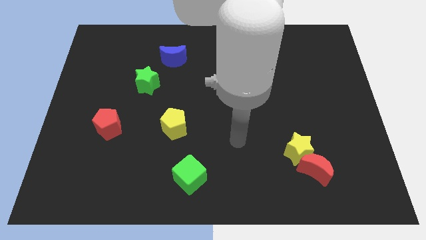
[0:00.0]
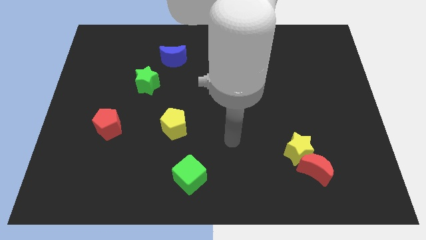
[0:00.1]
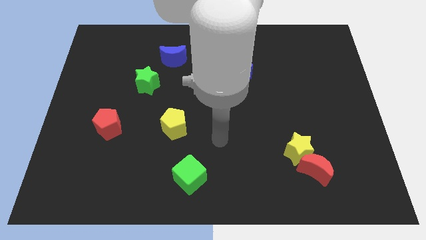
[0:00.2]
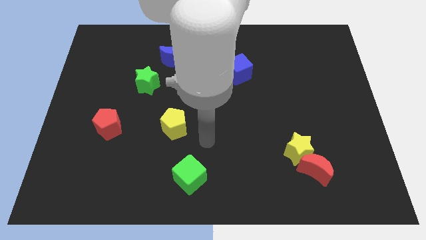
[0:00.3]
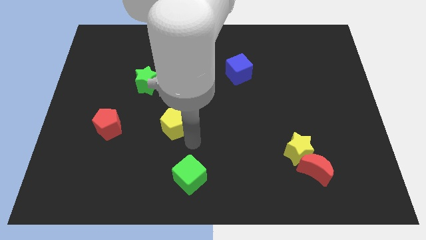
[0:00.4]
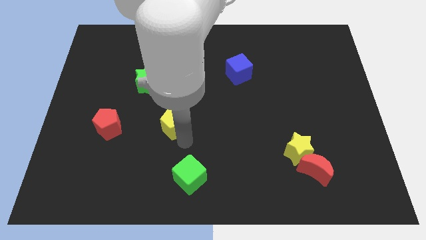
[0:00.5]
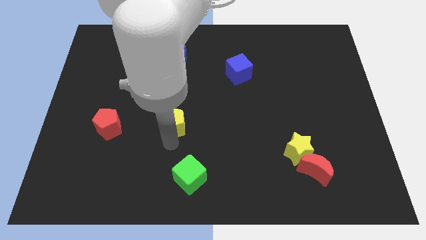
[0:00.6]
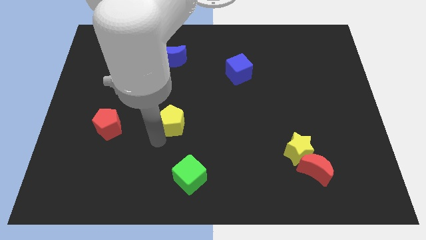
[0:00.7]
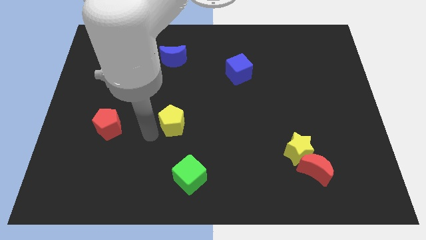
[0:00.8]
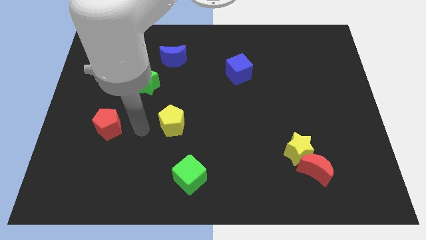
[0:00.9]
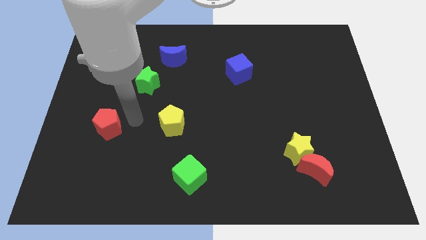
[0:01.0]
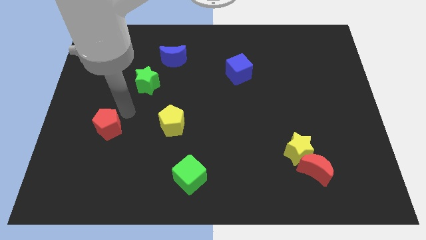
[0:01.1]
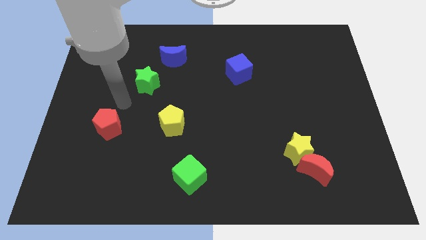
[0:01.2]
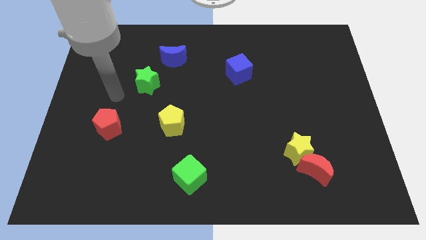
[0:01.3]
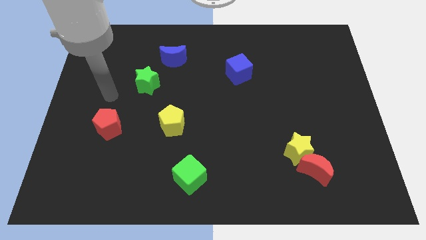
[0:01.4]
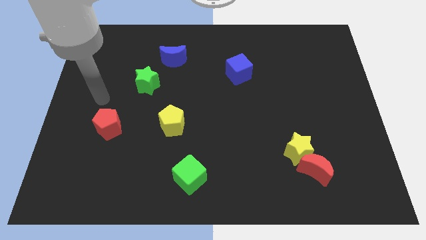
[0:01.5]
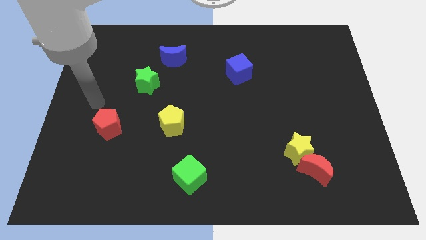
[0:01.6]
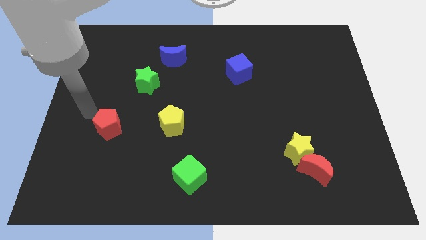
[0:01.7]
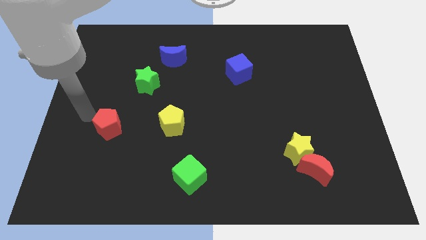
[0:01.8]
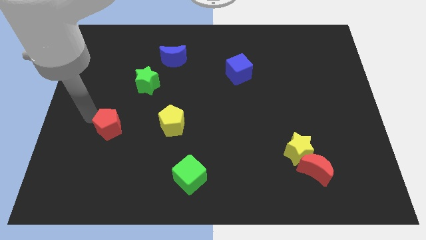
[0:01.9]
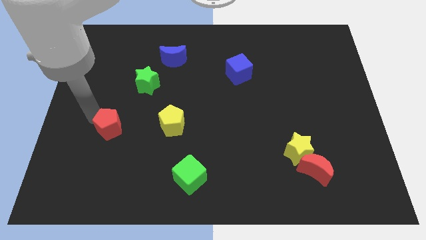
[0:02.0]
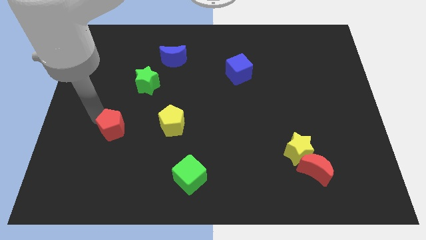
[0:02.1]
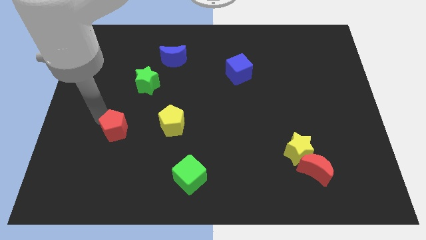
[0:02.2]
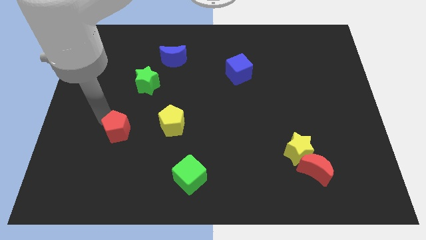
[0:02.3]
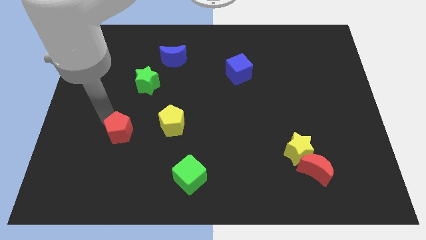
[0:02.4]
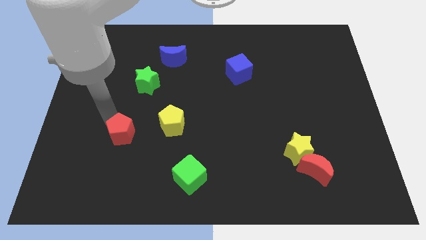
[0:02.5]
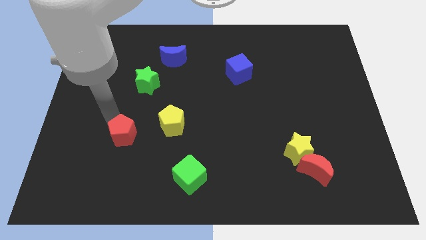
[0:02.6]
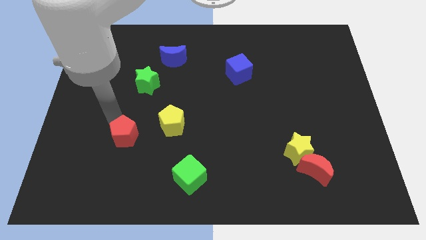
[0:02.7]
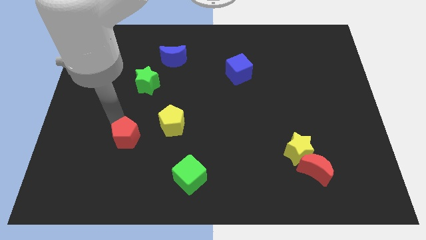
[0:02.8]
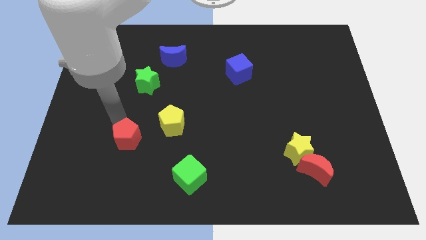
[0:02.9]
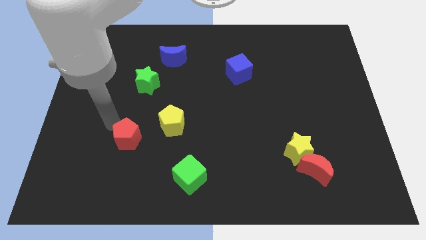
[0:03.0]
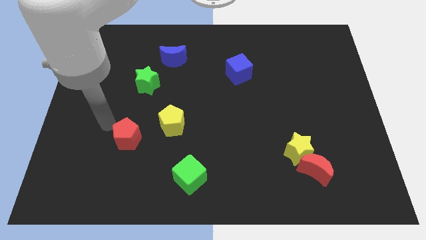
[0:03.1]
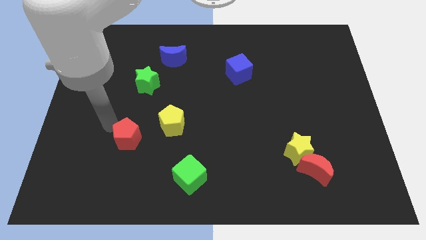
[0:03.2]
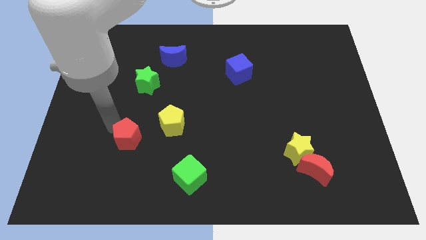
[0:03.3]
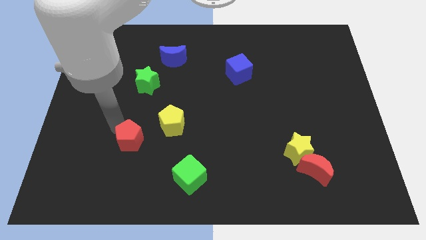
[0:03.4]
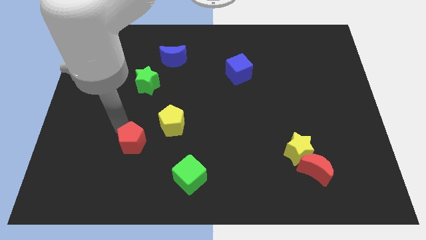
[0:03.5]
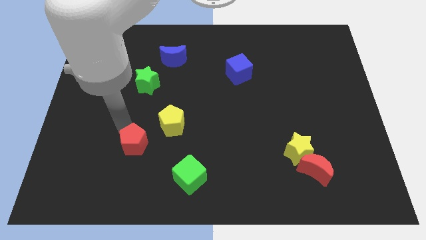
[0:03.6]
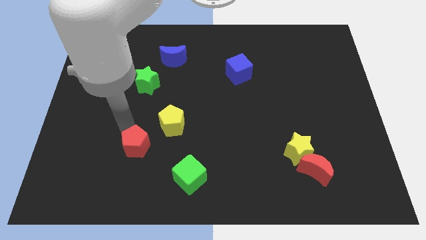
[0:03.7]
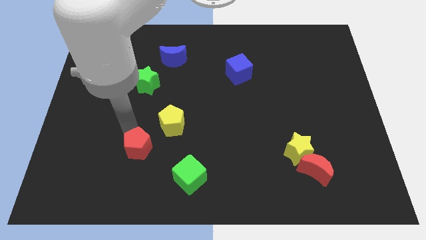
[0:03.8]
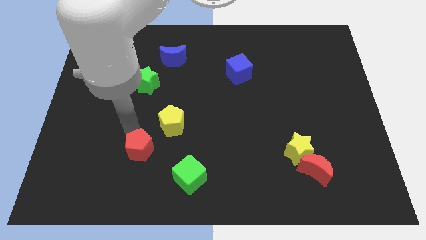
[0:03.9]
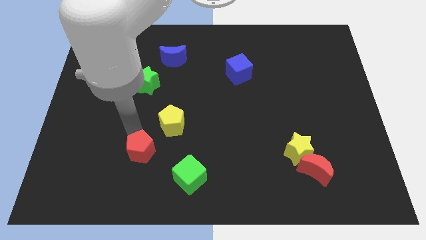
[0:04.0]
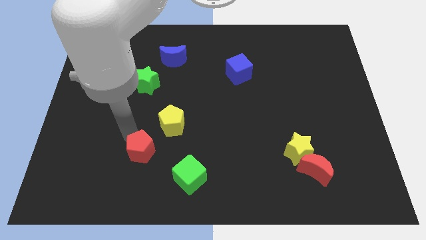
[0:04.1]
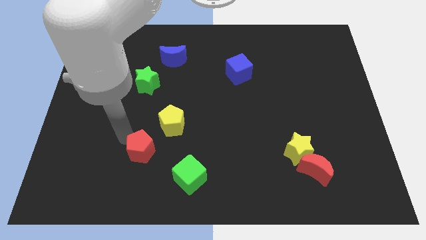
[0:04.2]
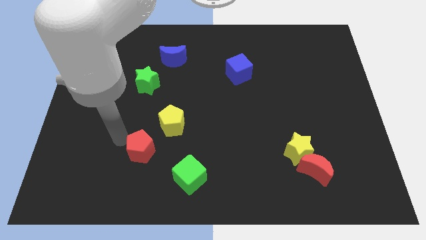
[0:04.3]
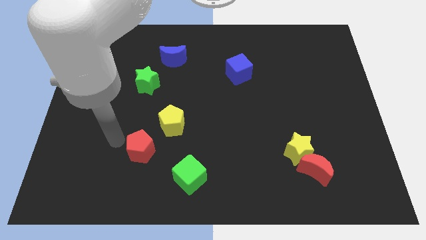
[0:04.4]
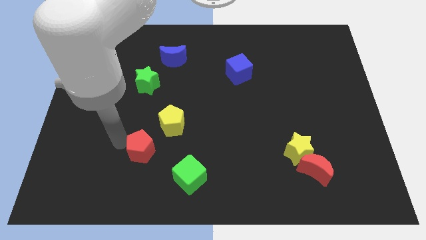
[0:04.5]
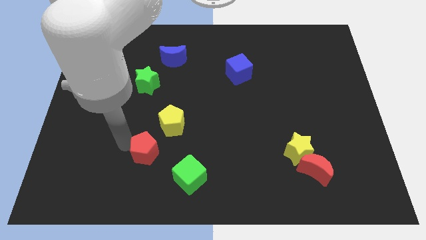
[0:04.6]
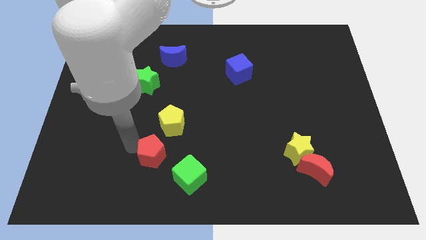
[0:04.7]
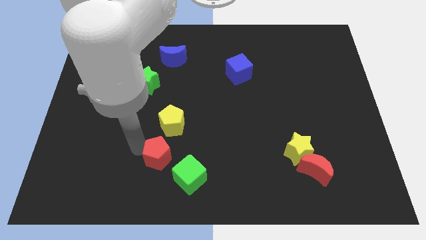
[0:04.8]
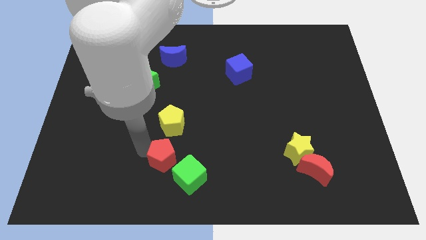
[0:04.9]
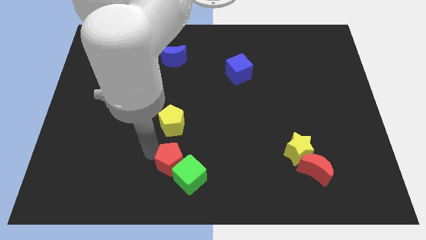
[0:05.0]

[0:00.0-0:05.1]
slide the red pentagon next to the green cube

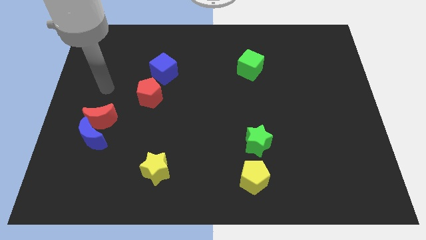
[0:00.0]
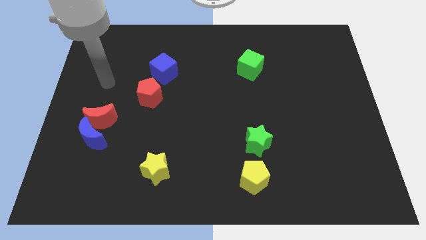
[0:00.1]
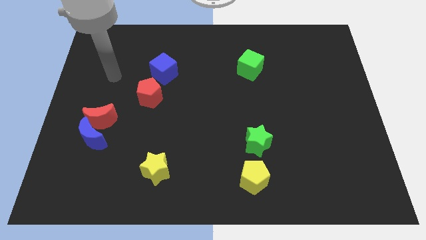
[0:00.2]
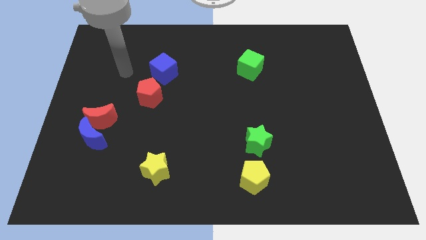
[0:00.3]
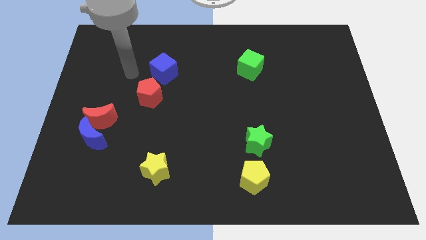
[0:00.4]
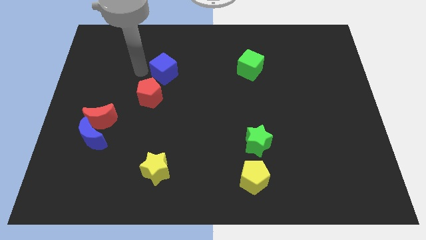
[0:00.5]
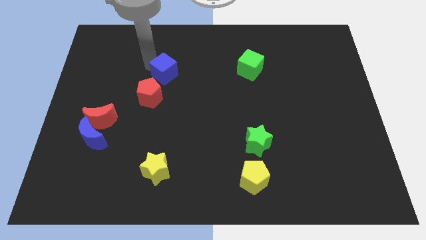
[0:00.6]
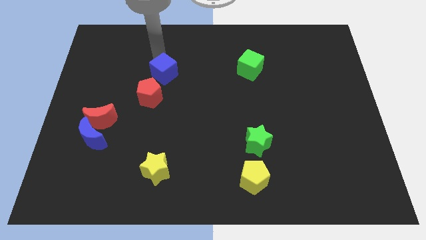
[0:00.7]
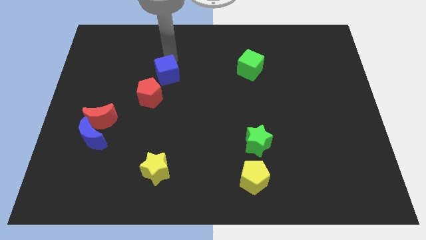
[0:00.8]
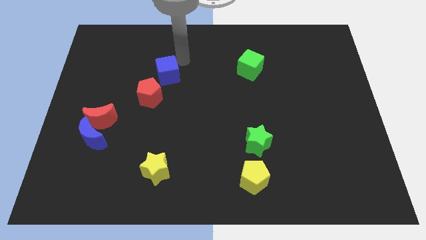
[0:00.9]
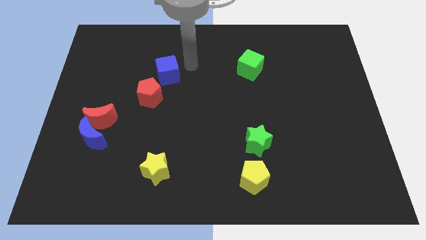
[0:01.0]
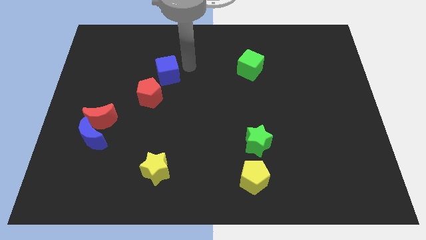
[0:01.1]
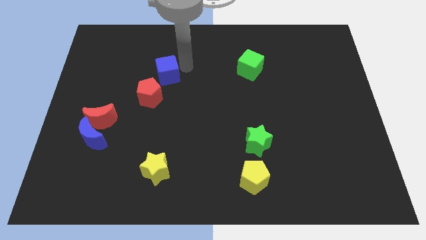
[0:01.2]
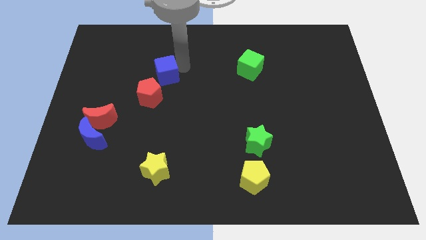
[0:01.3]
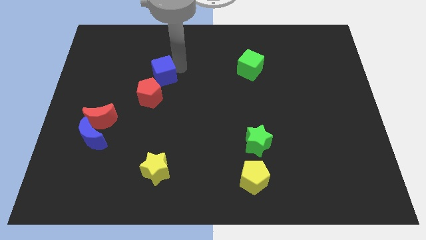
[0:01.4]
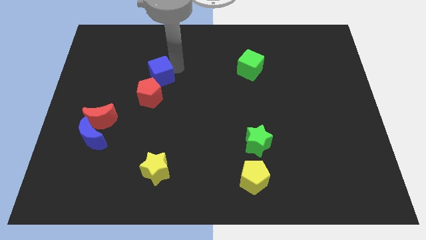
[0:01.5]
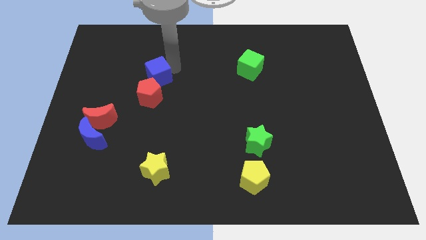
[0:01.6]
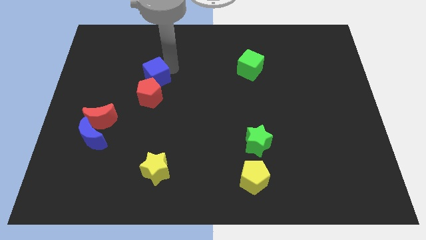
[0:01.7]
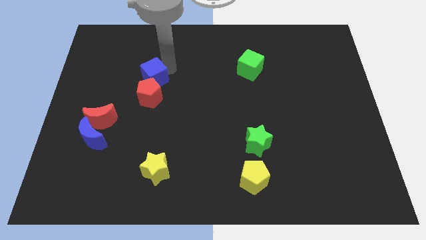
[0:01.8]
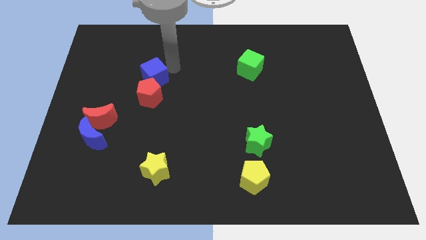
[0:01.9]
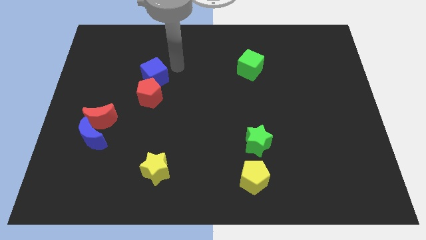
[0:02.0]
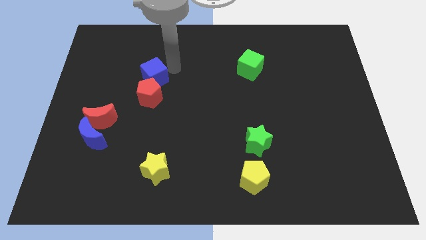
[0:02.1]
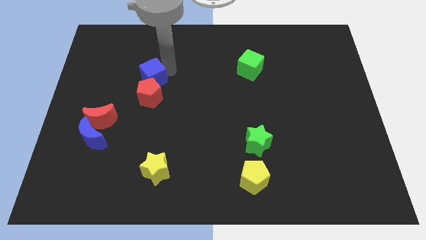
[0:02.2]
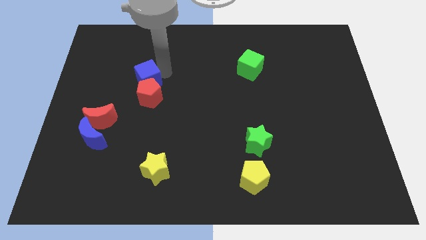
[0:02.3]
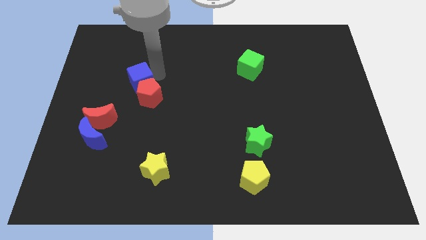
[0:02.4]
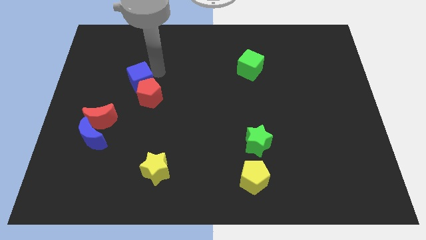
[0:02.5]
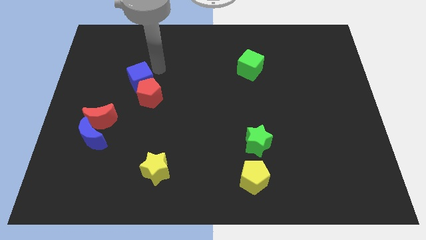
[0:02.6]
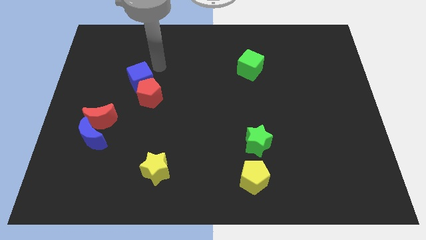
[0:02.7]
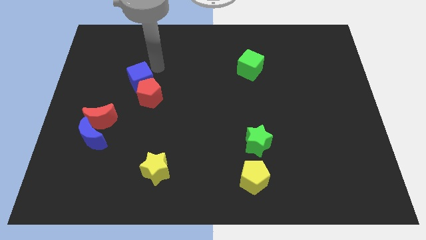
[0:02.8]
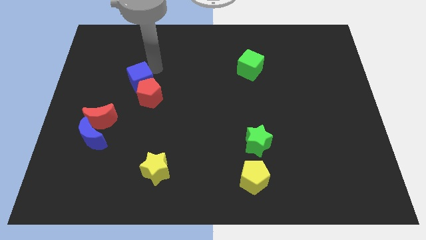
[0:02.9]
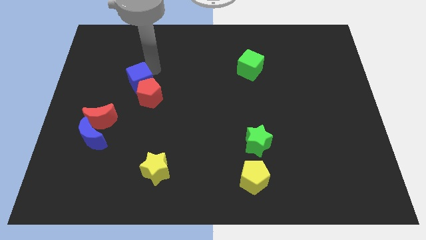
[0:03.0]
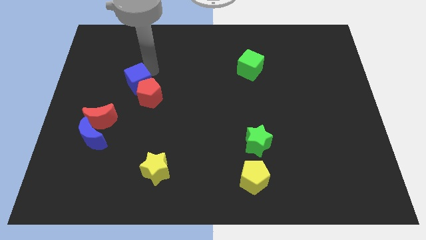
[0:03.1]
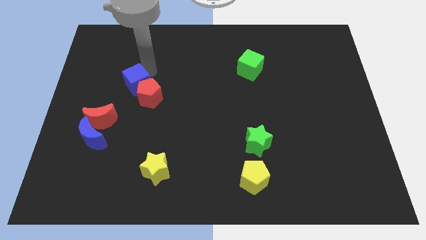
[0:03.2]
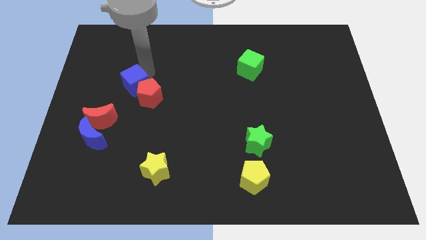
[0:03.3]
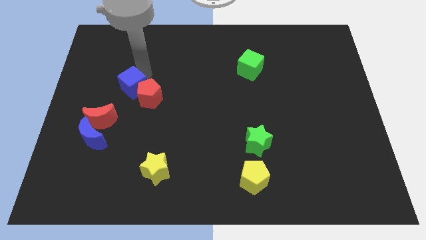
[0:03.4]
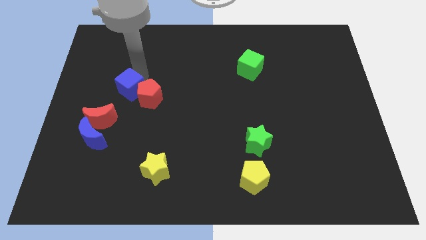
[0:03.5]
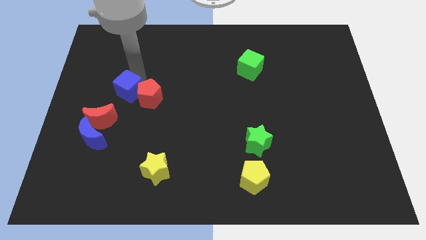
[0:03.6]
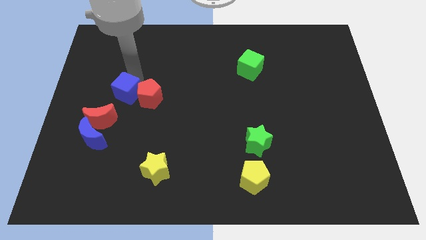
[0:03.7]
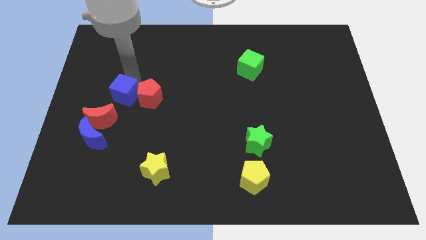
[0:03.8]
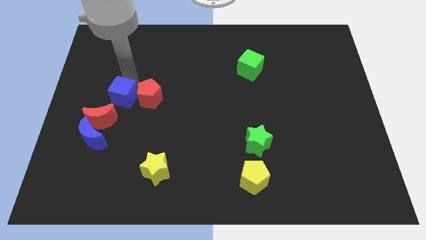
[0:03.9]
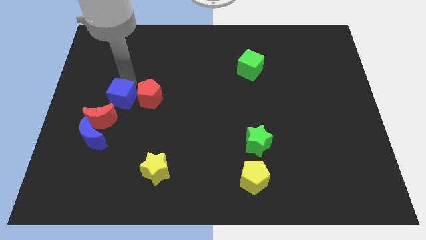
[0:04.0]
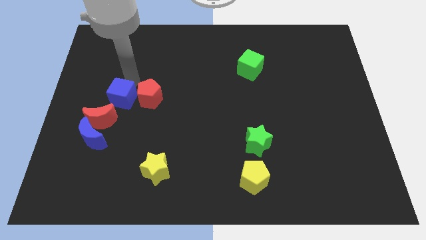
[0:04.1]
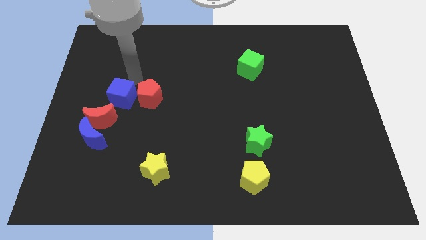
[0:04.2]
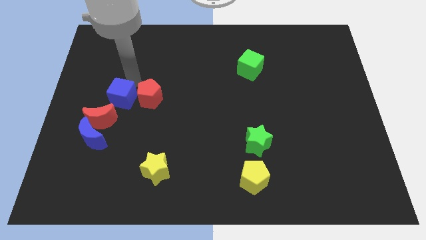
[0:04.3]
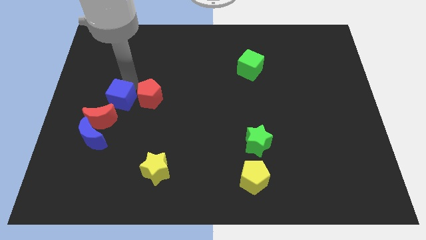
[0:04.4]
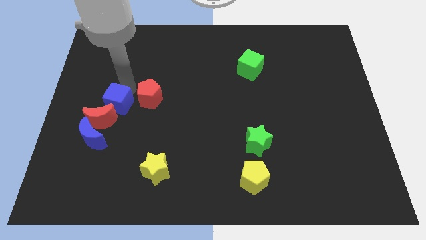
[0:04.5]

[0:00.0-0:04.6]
put the blue cube to the red moon
